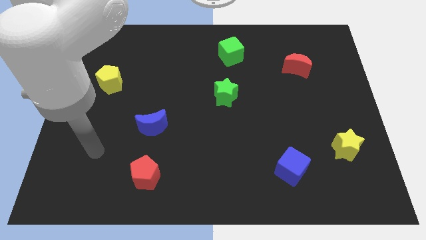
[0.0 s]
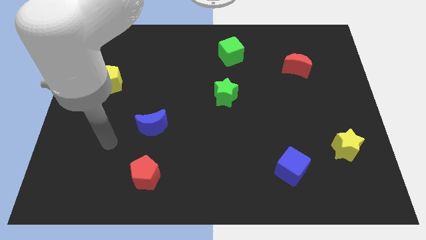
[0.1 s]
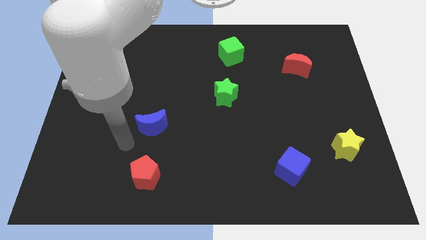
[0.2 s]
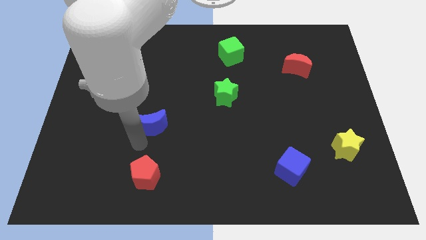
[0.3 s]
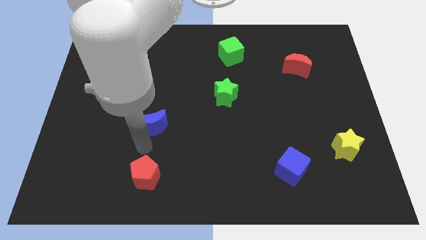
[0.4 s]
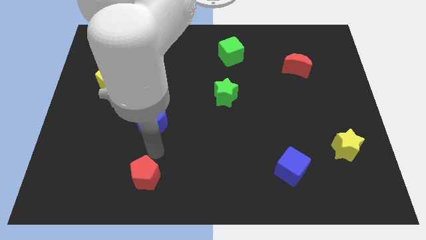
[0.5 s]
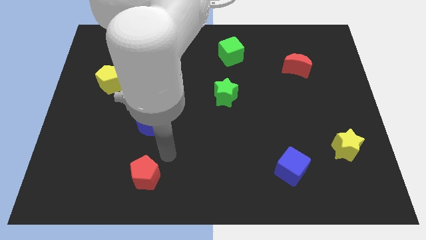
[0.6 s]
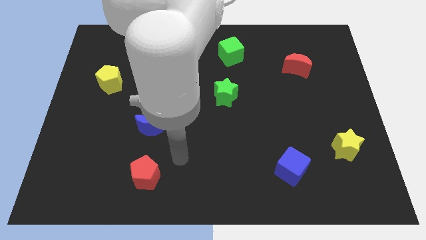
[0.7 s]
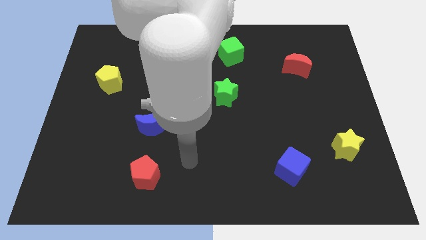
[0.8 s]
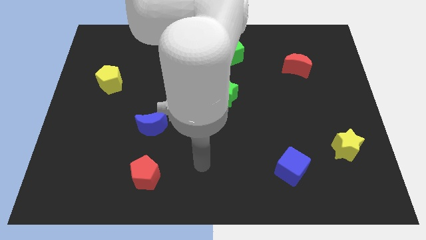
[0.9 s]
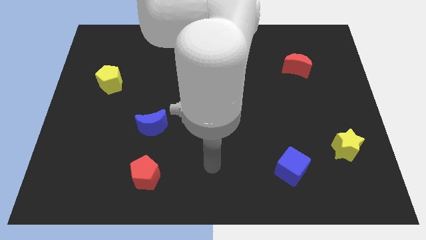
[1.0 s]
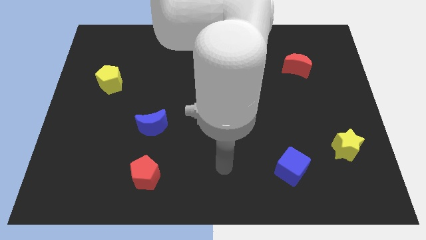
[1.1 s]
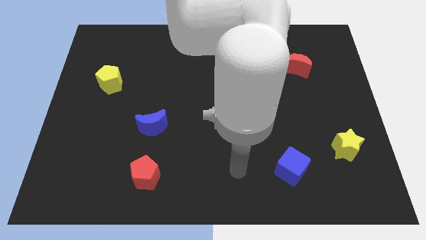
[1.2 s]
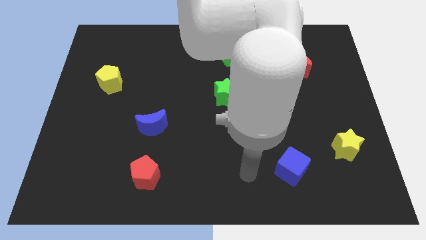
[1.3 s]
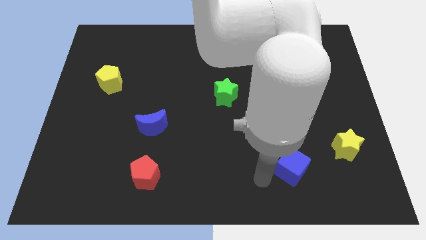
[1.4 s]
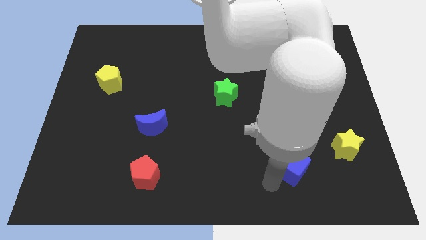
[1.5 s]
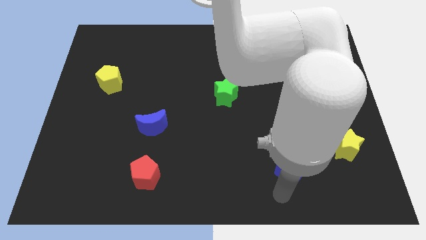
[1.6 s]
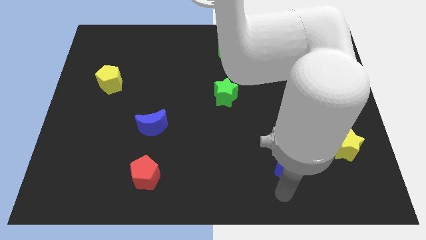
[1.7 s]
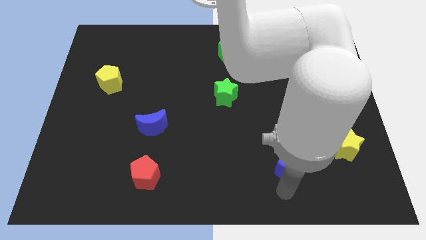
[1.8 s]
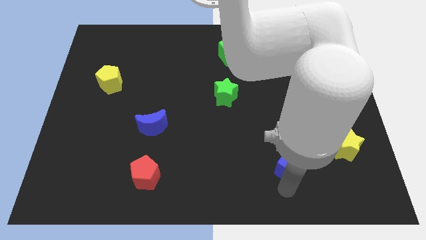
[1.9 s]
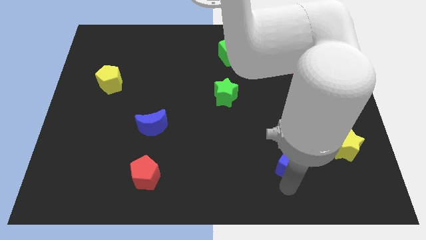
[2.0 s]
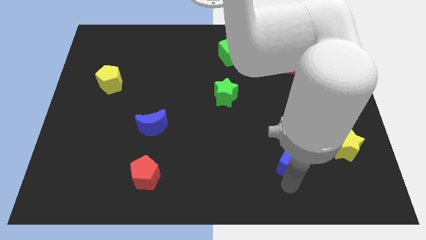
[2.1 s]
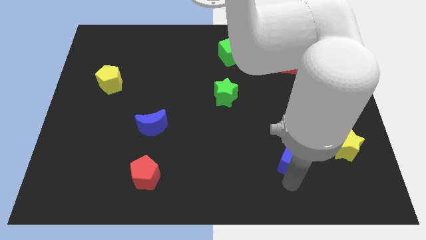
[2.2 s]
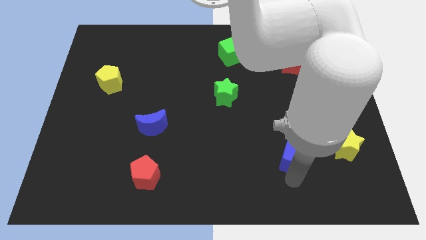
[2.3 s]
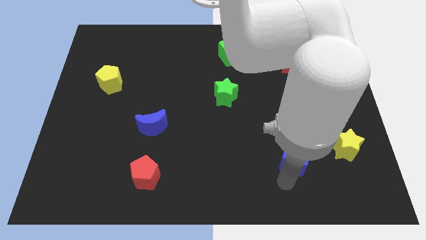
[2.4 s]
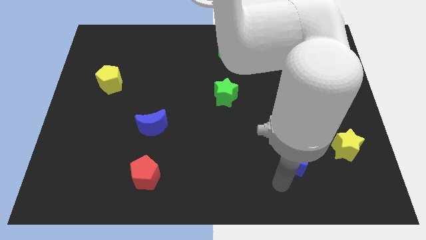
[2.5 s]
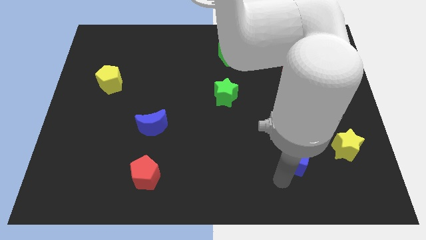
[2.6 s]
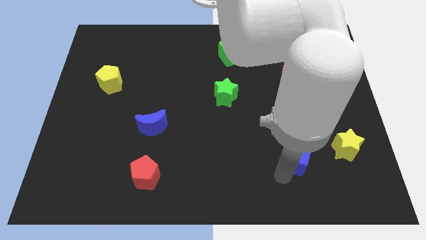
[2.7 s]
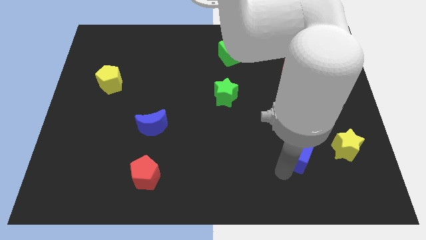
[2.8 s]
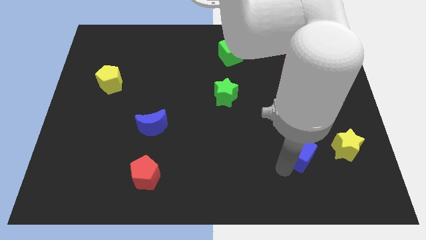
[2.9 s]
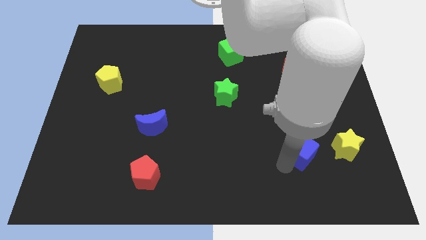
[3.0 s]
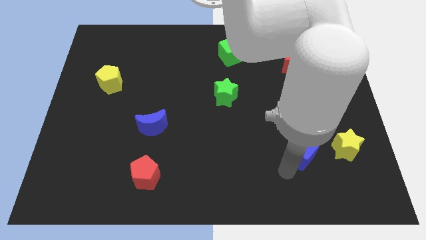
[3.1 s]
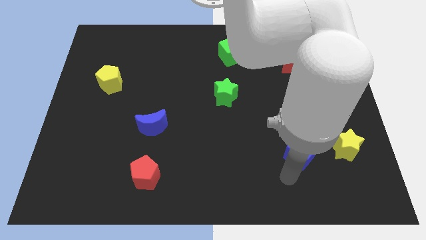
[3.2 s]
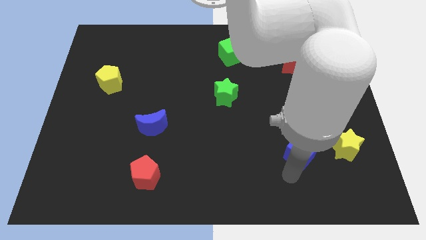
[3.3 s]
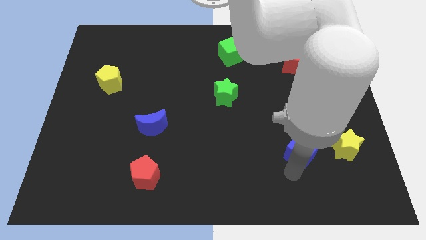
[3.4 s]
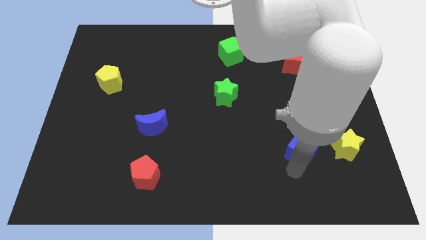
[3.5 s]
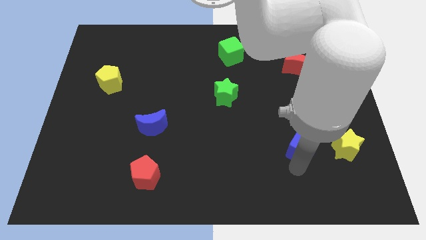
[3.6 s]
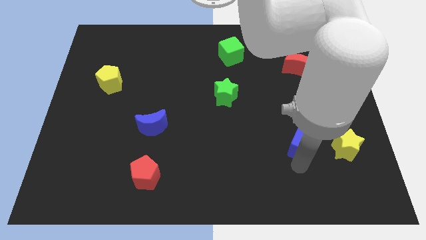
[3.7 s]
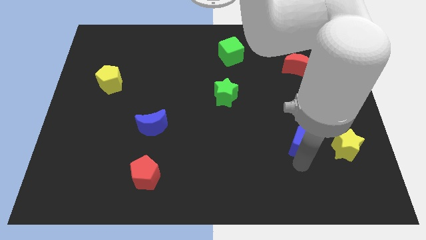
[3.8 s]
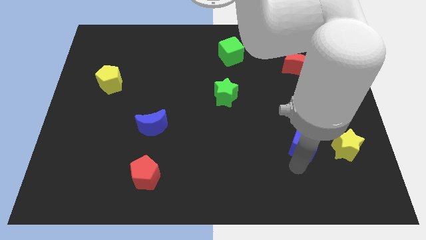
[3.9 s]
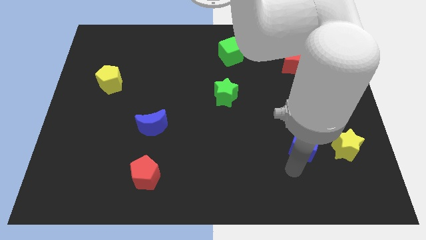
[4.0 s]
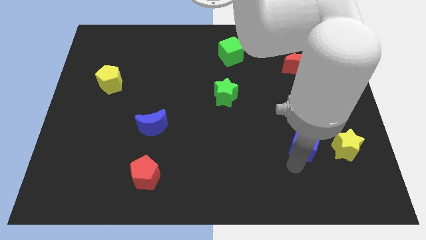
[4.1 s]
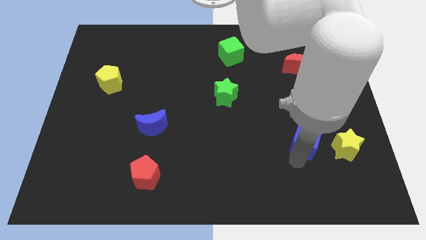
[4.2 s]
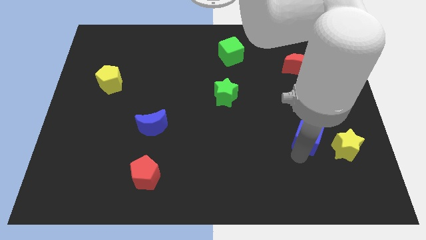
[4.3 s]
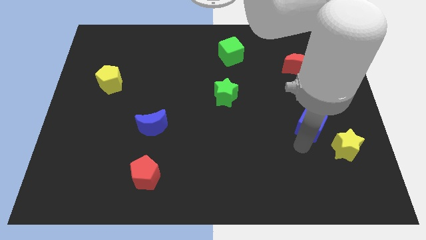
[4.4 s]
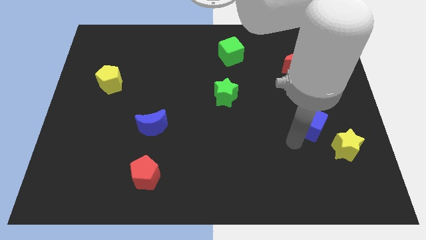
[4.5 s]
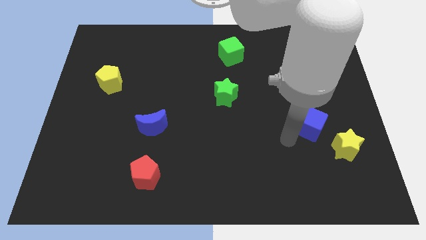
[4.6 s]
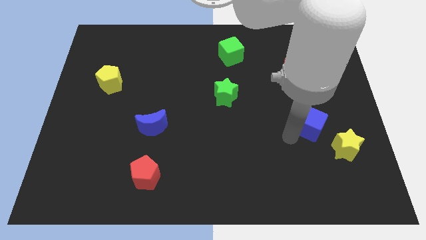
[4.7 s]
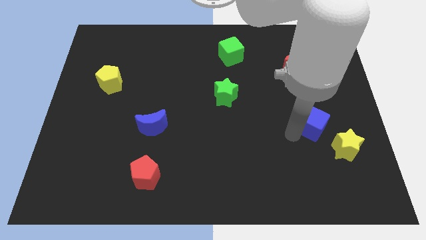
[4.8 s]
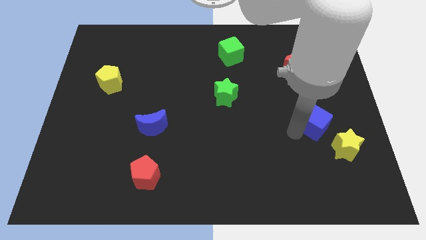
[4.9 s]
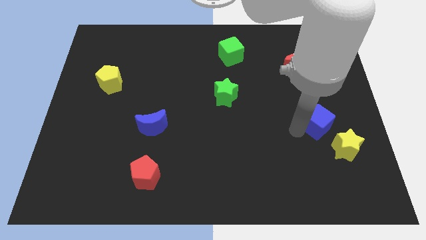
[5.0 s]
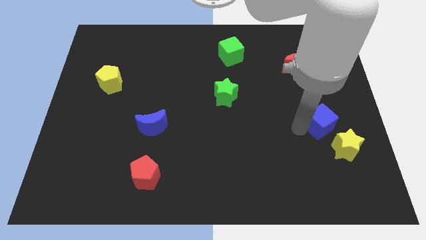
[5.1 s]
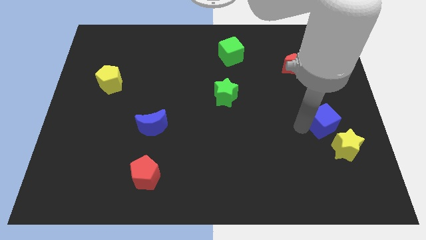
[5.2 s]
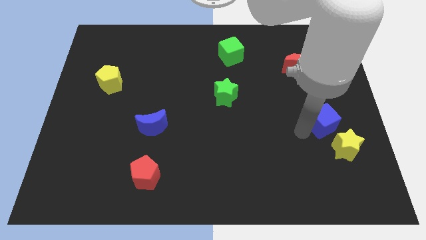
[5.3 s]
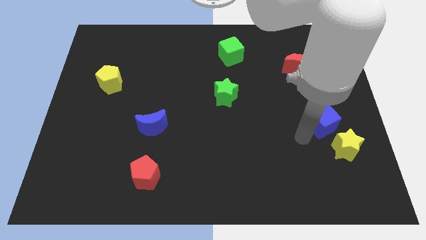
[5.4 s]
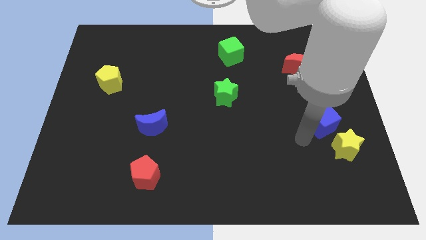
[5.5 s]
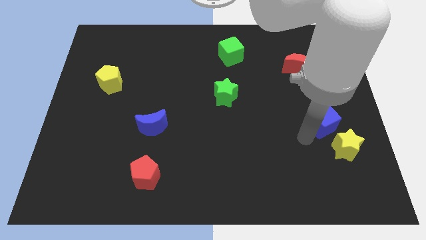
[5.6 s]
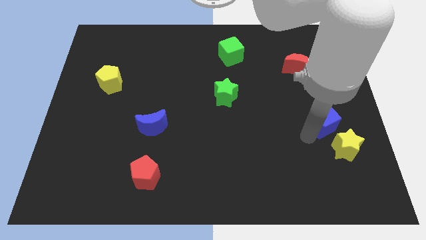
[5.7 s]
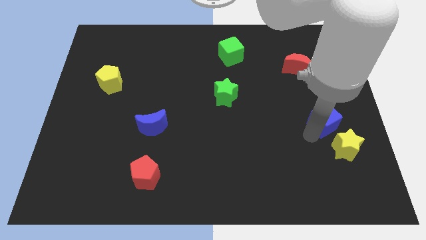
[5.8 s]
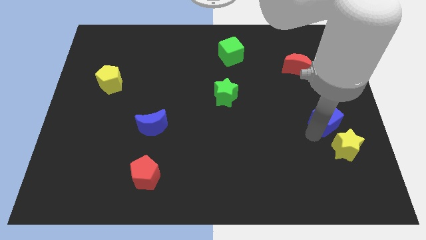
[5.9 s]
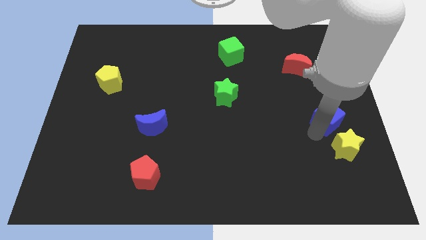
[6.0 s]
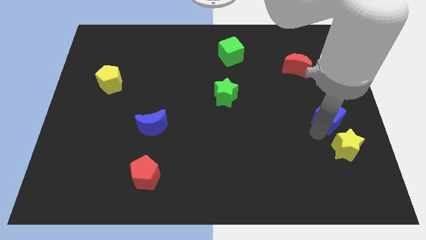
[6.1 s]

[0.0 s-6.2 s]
push the blue cube to the right side of the board
